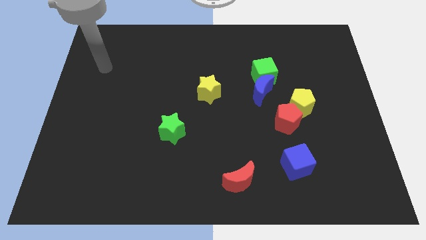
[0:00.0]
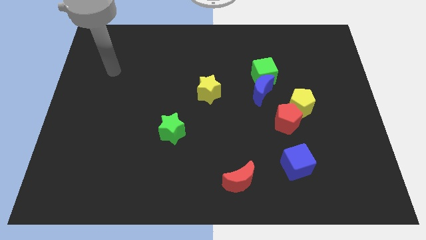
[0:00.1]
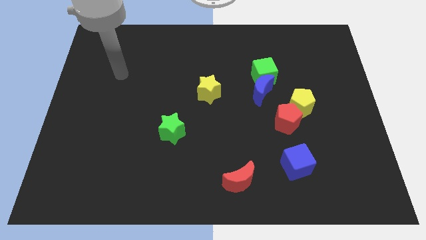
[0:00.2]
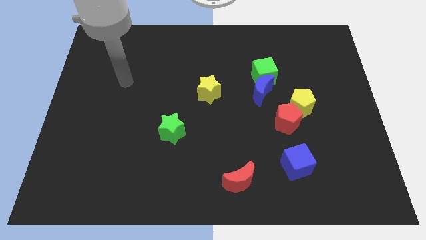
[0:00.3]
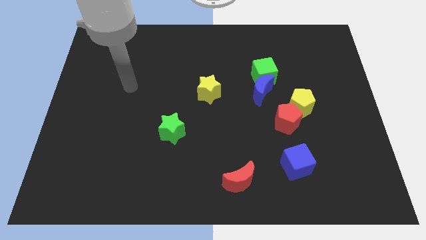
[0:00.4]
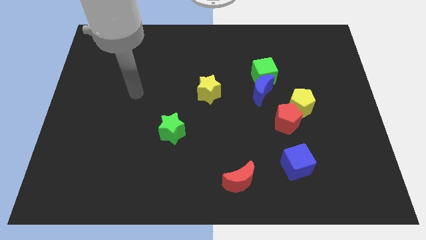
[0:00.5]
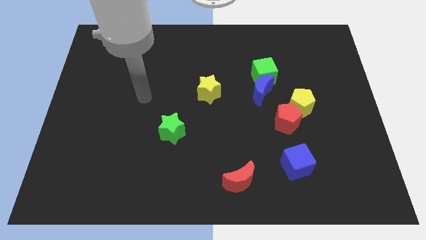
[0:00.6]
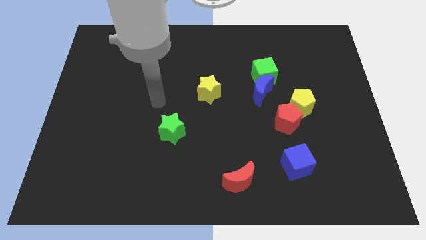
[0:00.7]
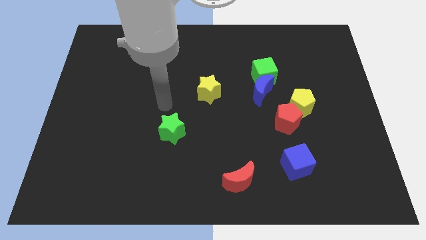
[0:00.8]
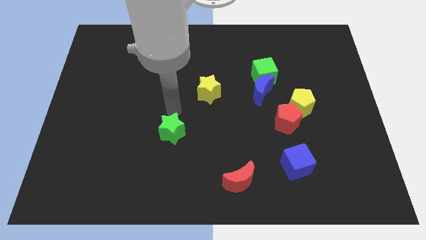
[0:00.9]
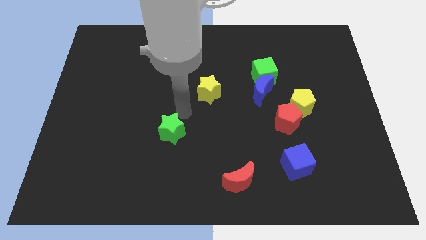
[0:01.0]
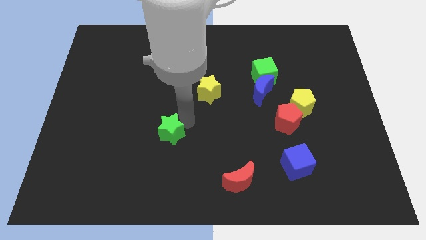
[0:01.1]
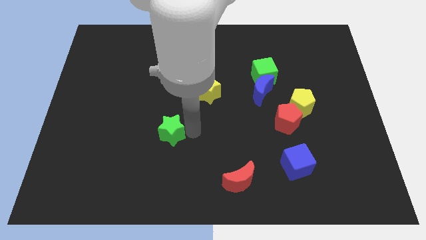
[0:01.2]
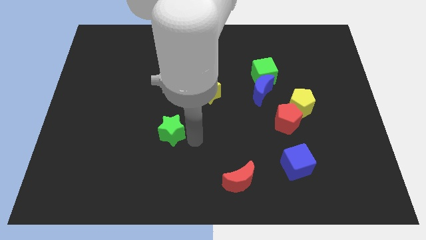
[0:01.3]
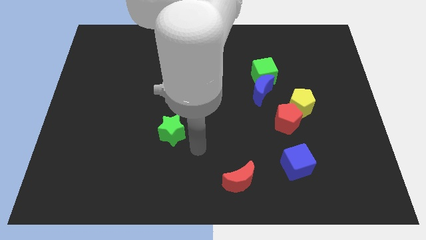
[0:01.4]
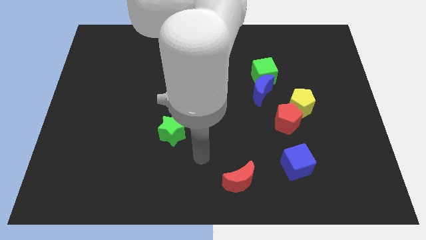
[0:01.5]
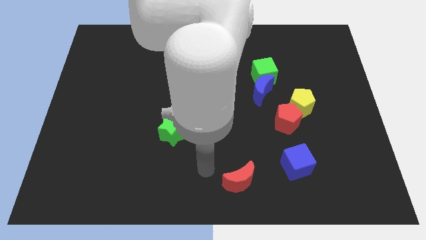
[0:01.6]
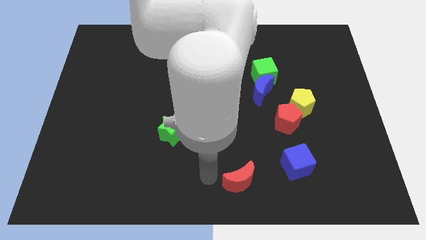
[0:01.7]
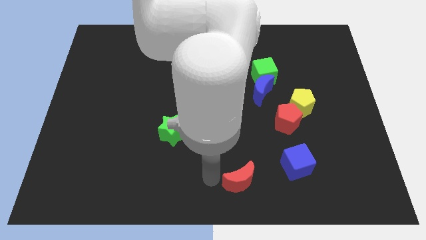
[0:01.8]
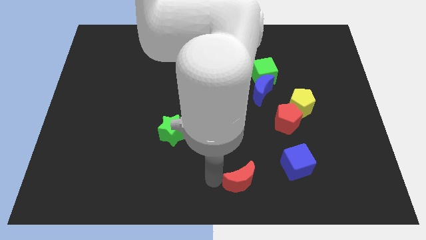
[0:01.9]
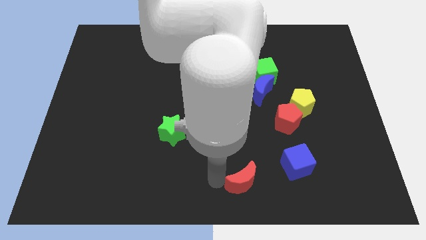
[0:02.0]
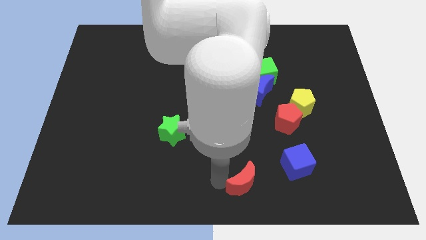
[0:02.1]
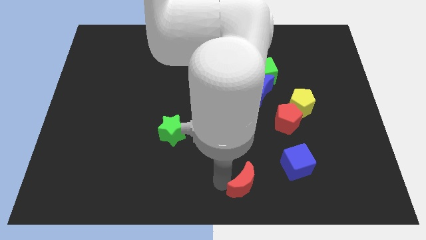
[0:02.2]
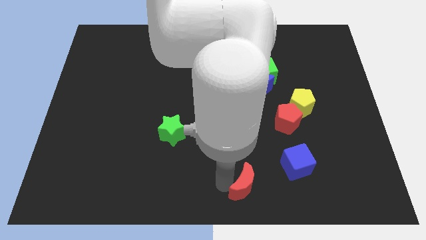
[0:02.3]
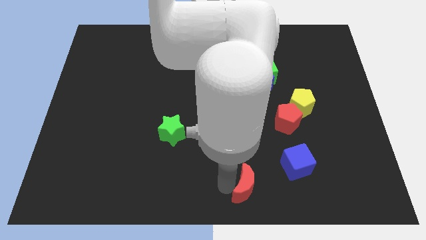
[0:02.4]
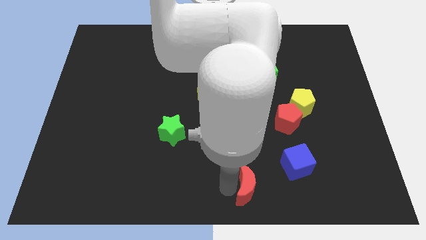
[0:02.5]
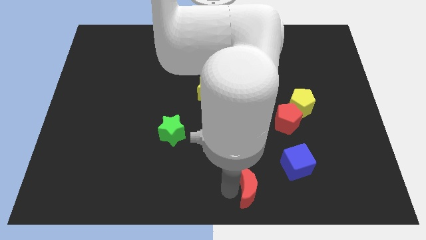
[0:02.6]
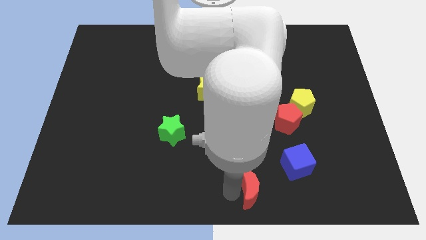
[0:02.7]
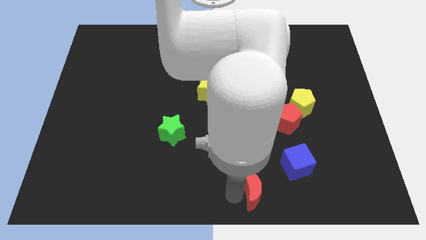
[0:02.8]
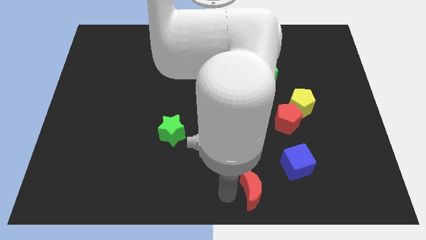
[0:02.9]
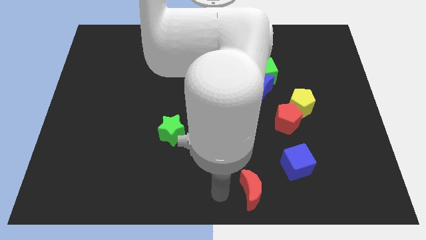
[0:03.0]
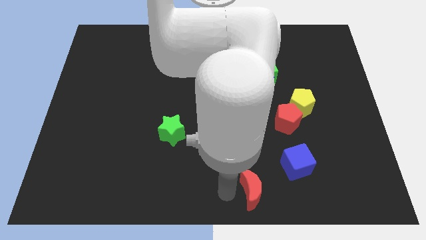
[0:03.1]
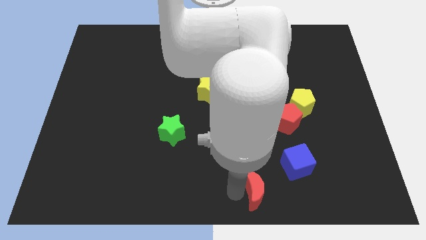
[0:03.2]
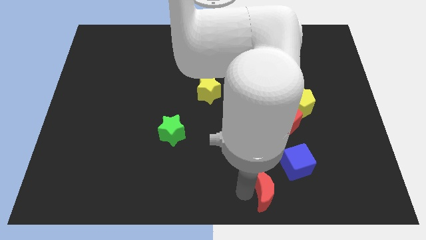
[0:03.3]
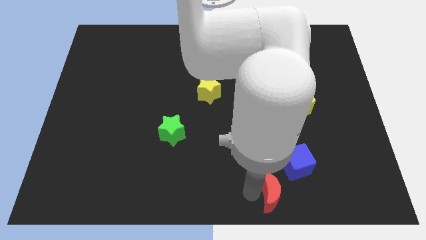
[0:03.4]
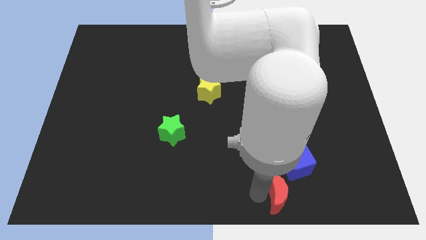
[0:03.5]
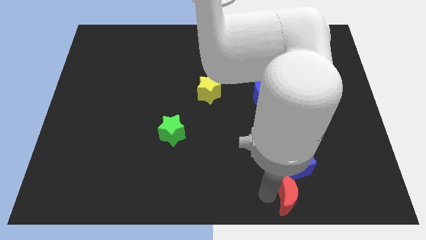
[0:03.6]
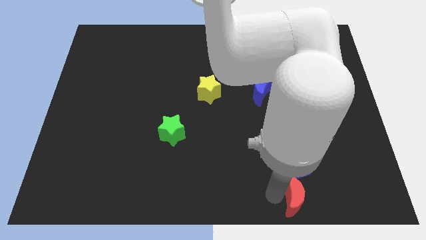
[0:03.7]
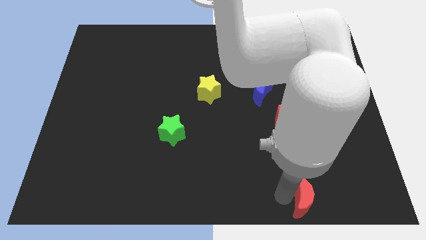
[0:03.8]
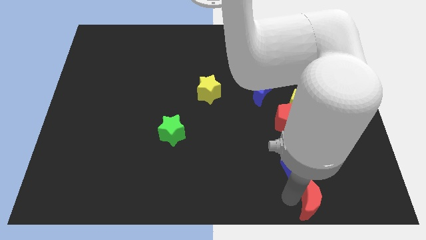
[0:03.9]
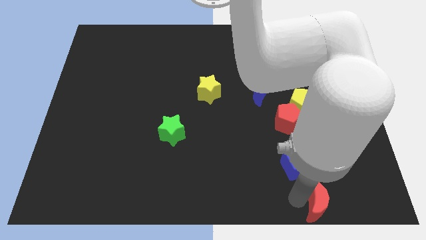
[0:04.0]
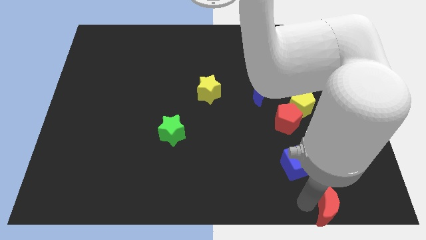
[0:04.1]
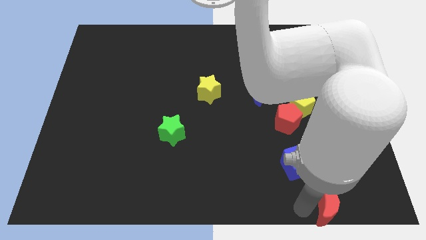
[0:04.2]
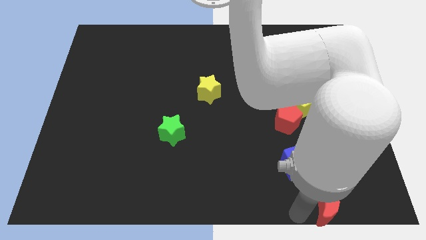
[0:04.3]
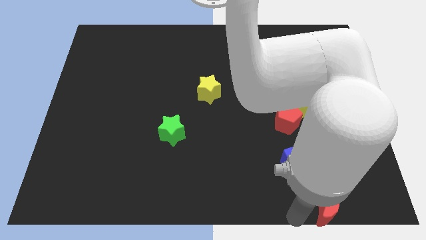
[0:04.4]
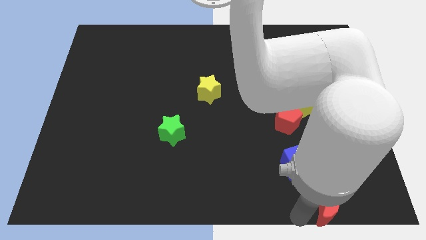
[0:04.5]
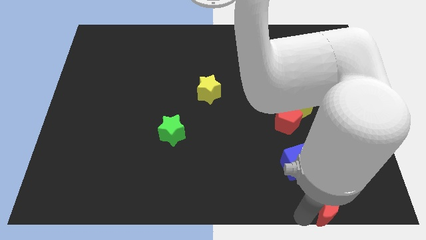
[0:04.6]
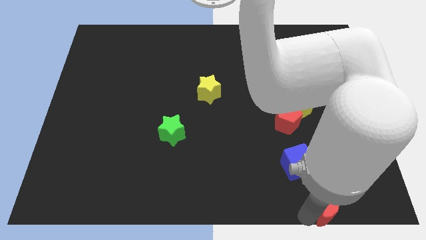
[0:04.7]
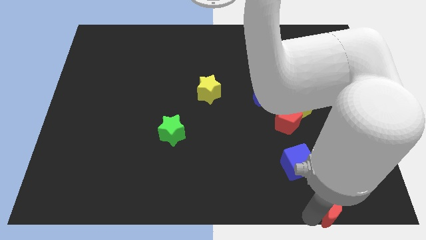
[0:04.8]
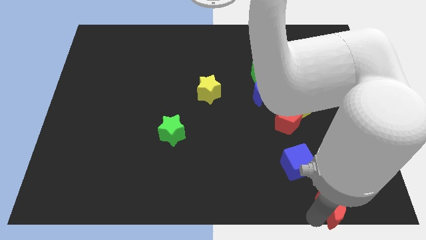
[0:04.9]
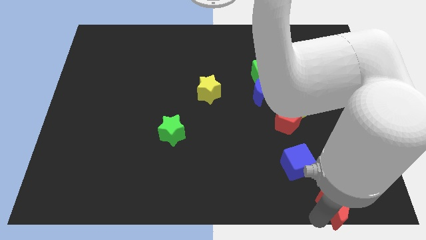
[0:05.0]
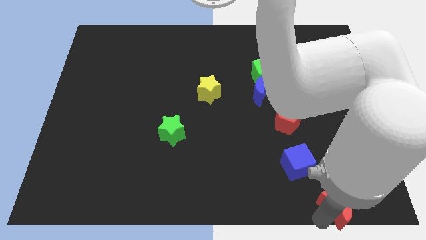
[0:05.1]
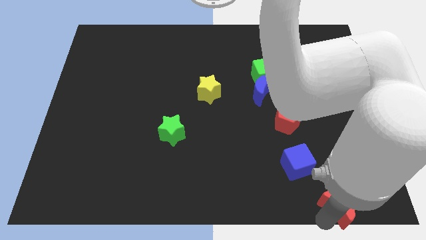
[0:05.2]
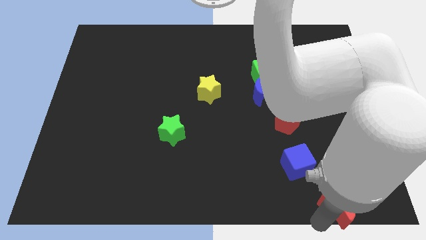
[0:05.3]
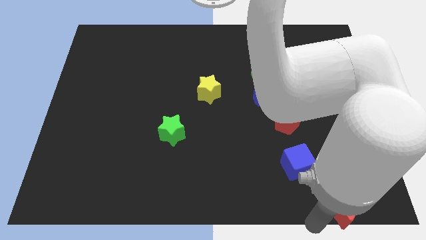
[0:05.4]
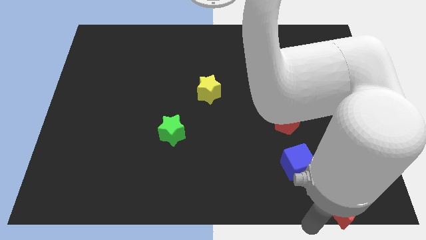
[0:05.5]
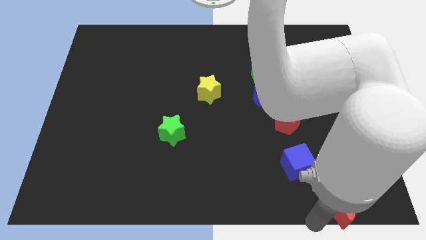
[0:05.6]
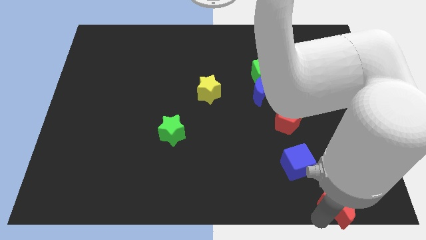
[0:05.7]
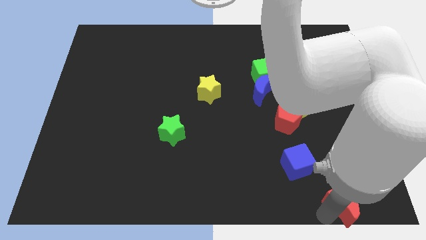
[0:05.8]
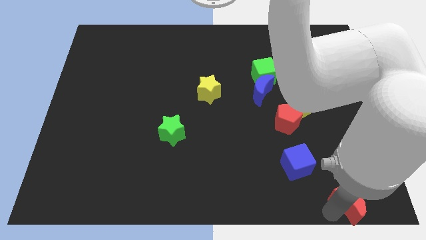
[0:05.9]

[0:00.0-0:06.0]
put the red moon to the bottom right of the board

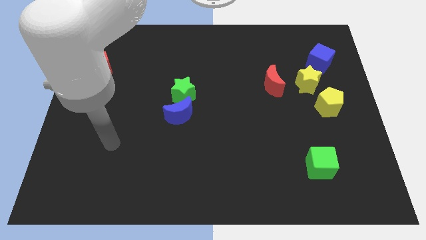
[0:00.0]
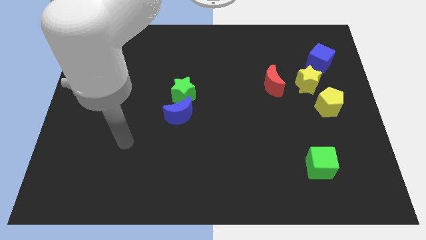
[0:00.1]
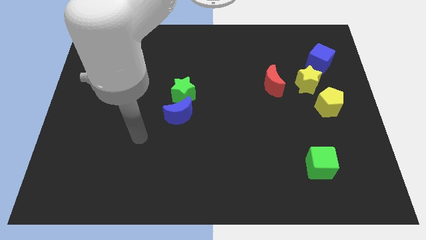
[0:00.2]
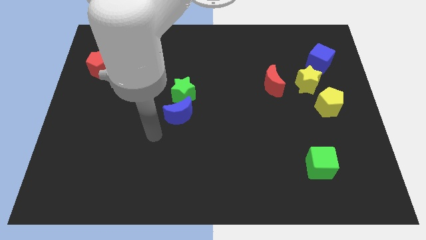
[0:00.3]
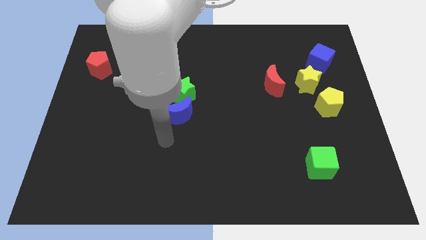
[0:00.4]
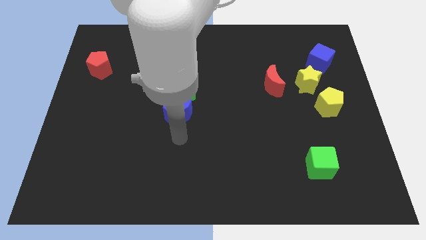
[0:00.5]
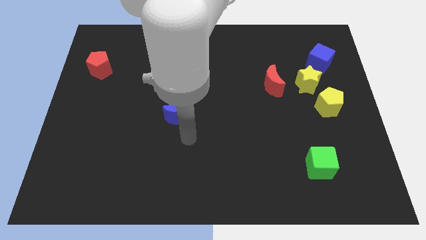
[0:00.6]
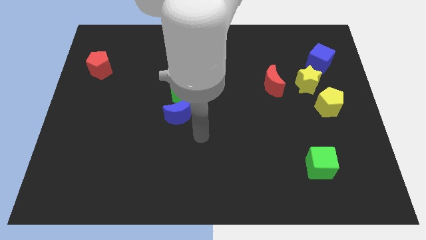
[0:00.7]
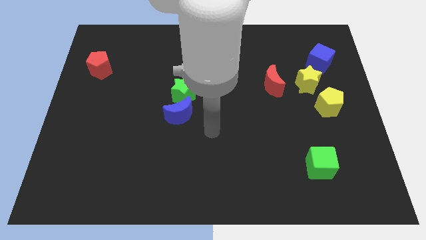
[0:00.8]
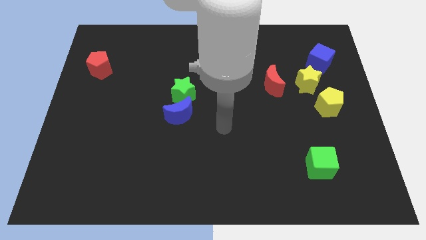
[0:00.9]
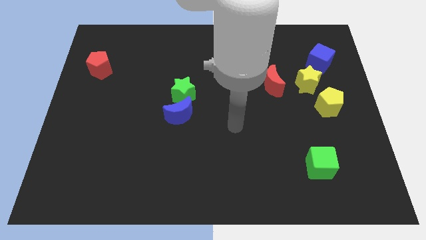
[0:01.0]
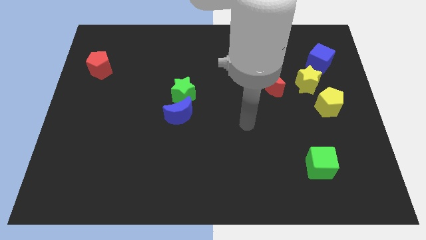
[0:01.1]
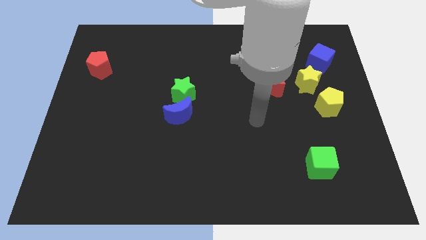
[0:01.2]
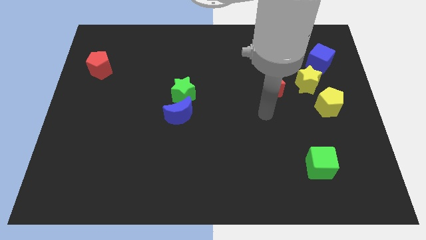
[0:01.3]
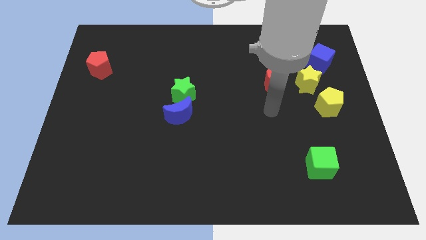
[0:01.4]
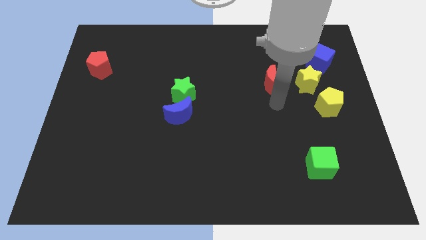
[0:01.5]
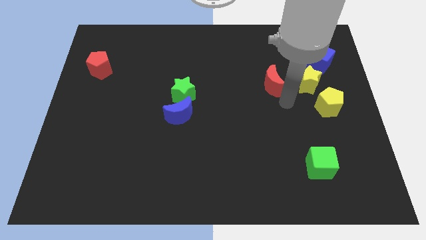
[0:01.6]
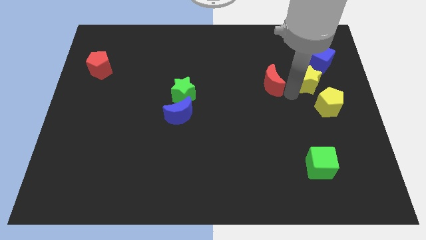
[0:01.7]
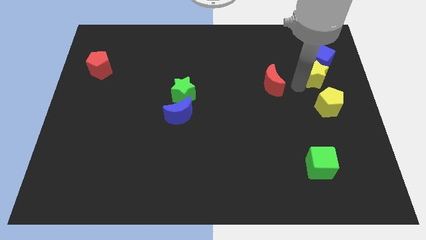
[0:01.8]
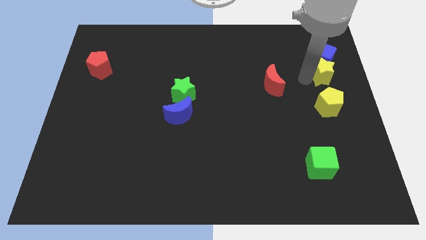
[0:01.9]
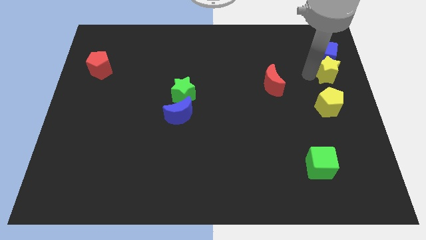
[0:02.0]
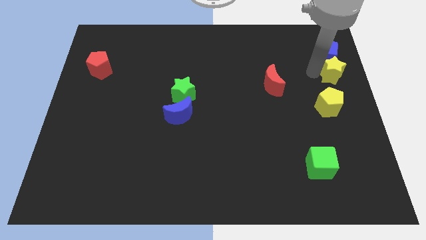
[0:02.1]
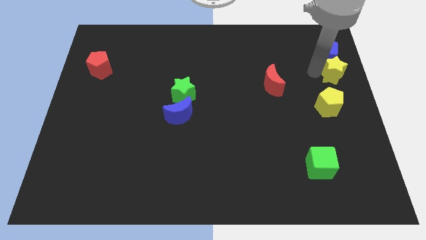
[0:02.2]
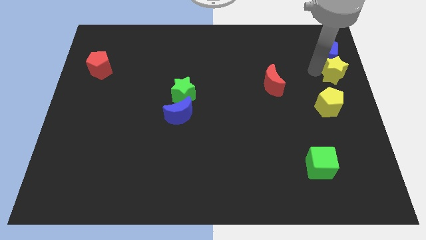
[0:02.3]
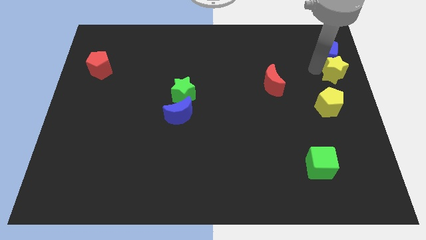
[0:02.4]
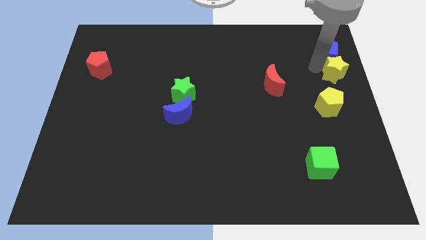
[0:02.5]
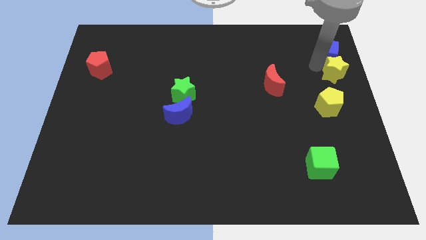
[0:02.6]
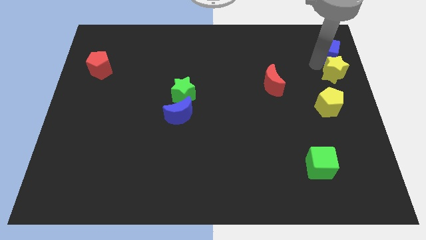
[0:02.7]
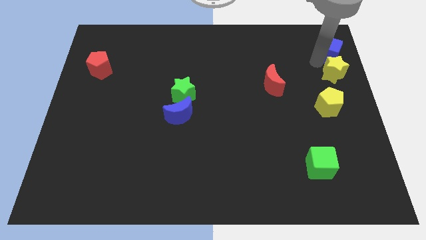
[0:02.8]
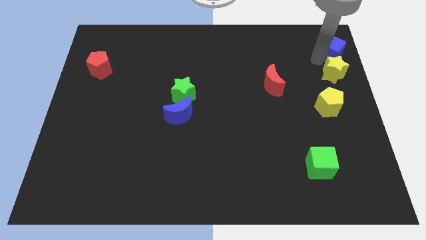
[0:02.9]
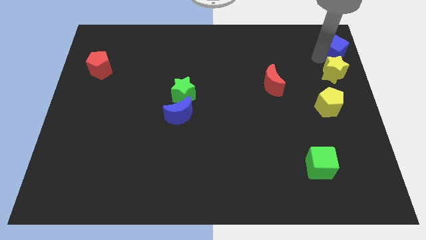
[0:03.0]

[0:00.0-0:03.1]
put the blue cube to the top right of the board
